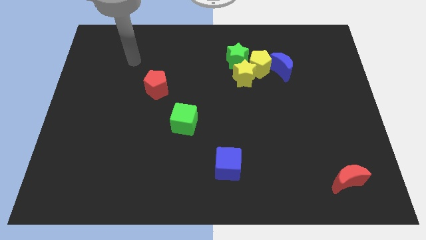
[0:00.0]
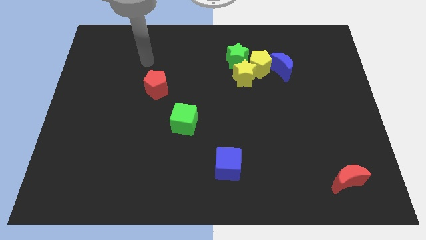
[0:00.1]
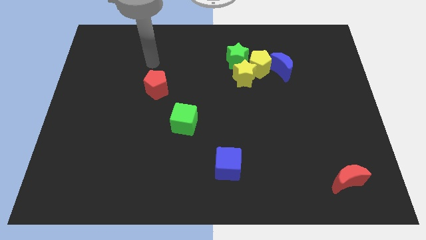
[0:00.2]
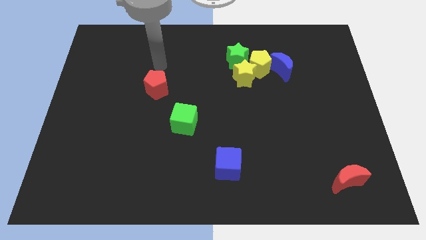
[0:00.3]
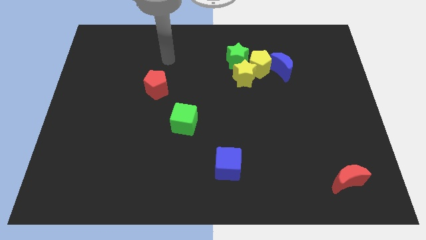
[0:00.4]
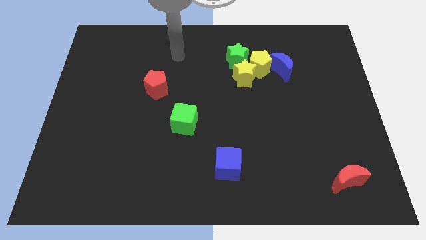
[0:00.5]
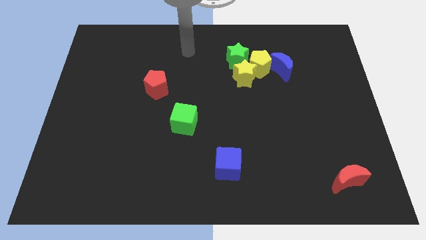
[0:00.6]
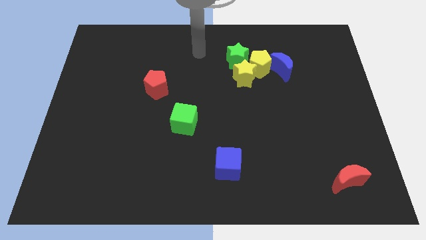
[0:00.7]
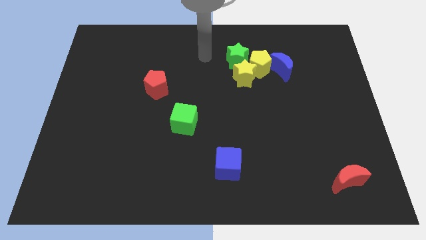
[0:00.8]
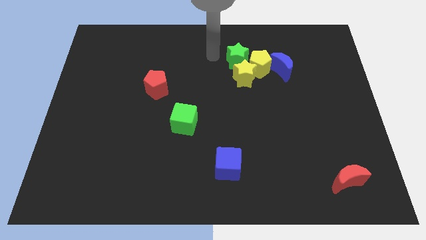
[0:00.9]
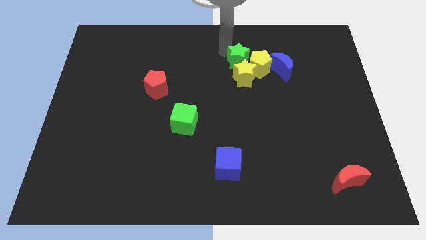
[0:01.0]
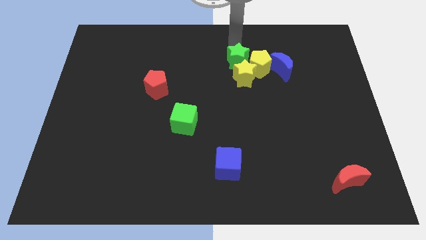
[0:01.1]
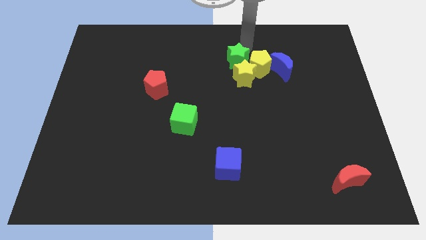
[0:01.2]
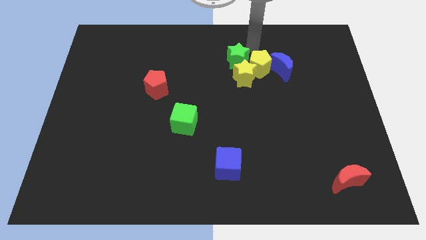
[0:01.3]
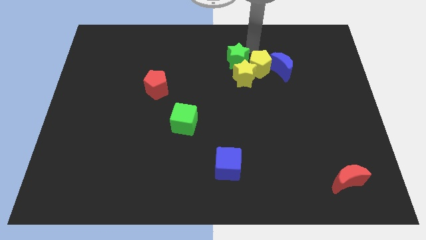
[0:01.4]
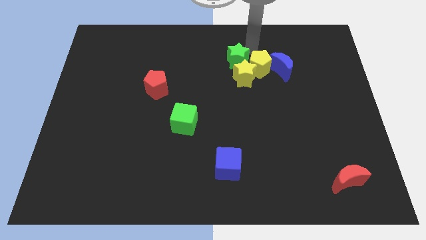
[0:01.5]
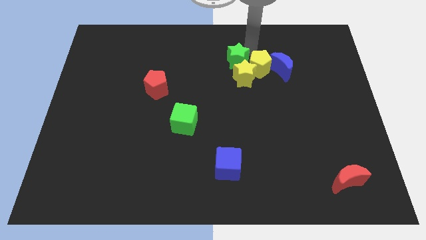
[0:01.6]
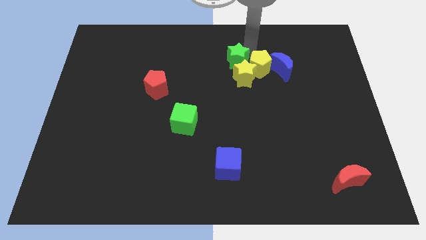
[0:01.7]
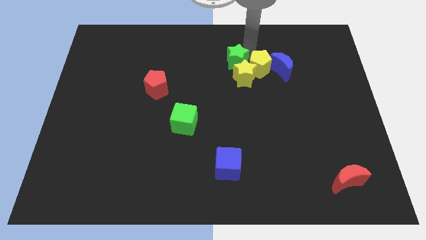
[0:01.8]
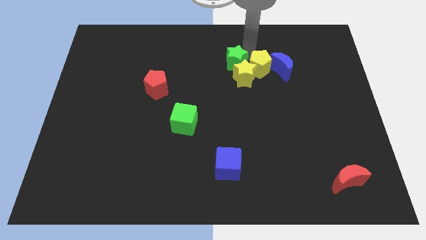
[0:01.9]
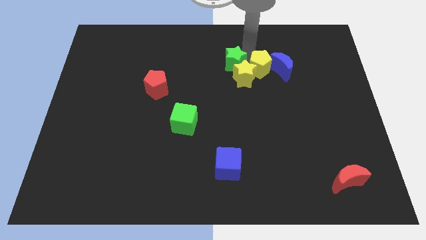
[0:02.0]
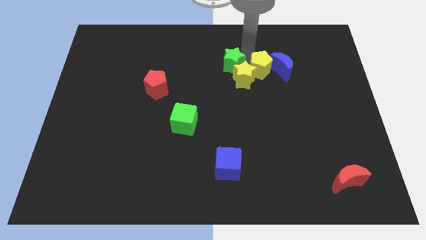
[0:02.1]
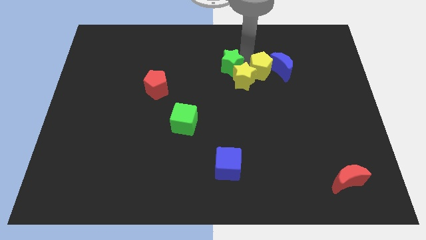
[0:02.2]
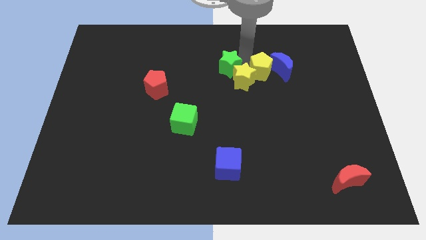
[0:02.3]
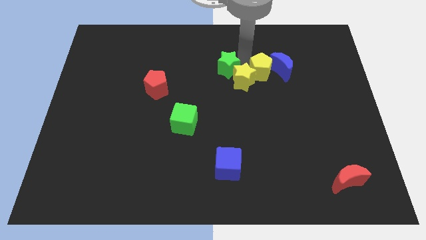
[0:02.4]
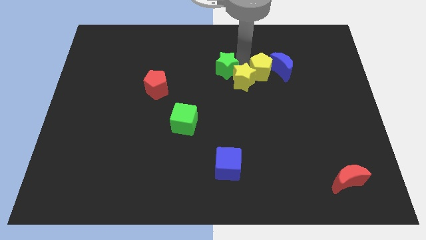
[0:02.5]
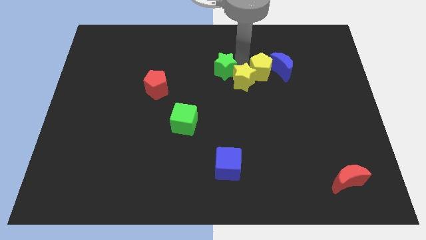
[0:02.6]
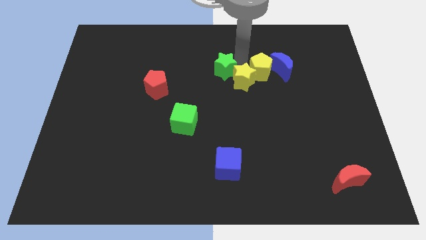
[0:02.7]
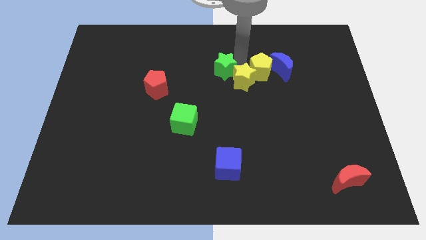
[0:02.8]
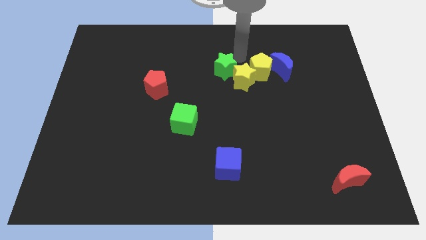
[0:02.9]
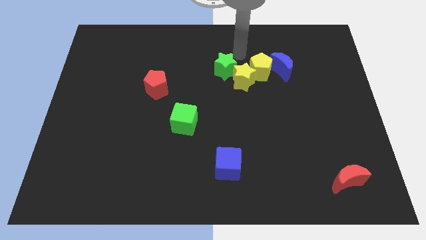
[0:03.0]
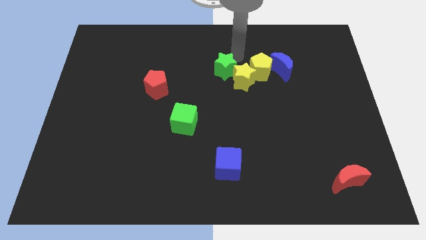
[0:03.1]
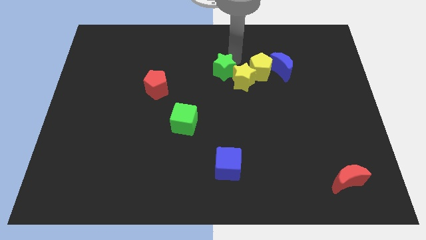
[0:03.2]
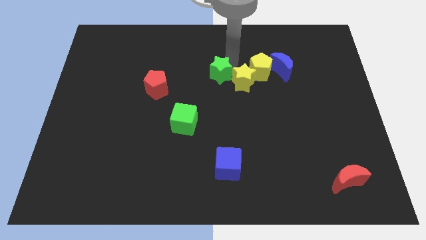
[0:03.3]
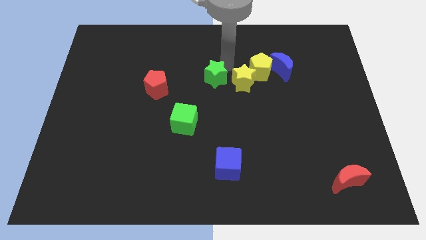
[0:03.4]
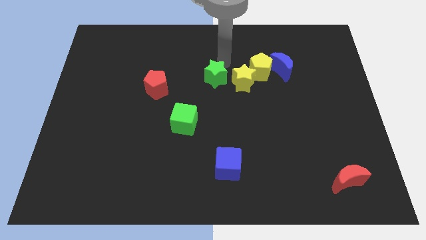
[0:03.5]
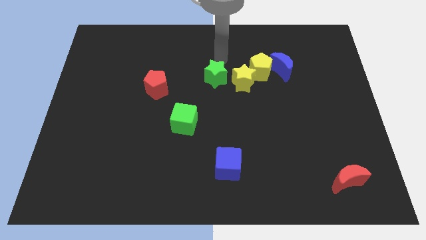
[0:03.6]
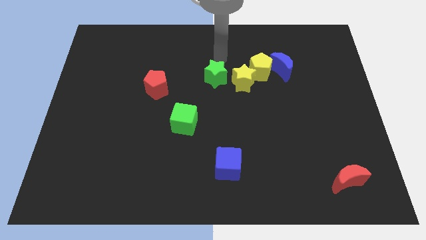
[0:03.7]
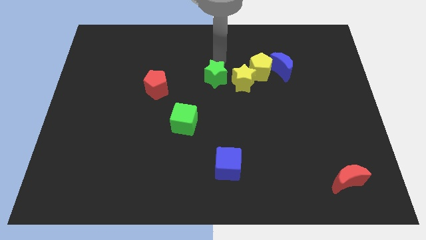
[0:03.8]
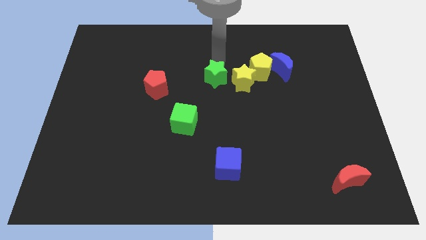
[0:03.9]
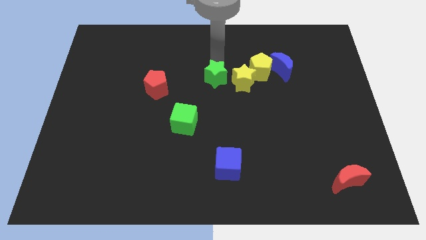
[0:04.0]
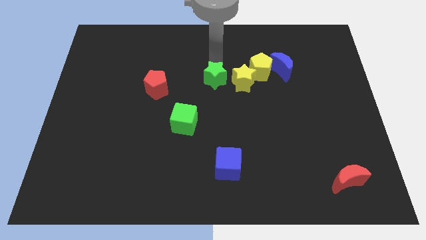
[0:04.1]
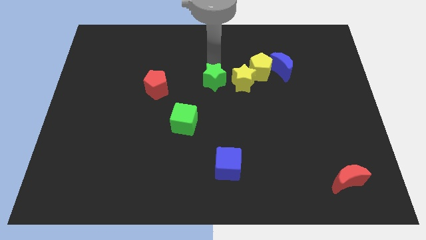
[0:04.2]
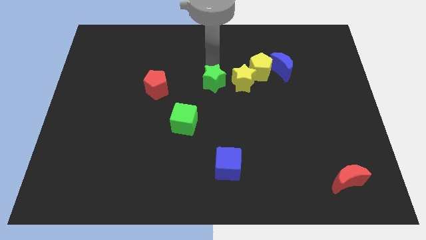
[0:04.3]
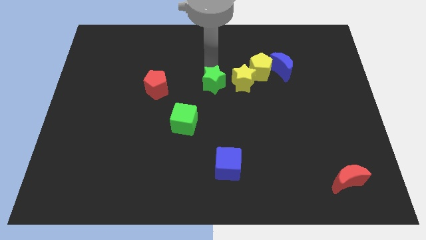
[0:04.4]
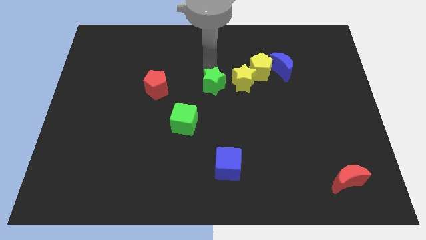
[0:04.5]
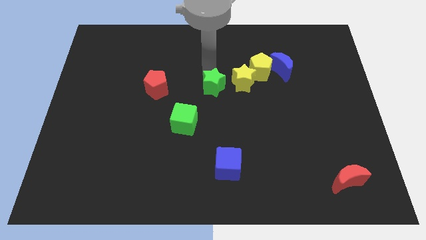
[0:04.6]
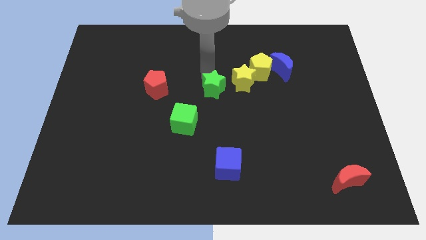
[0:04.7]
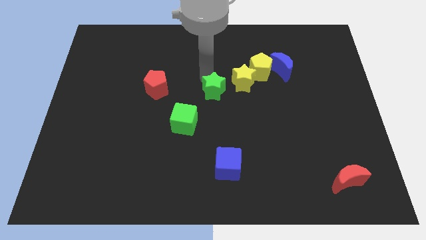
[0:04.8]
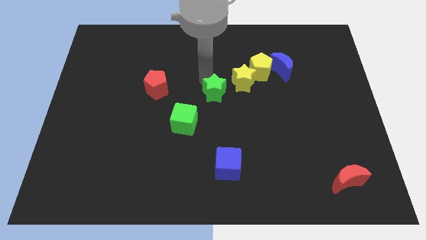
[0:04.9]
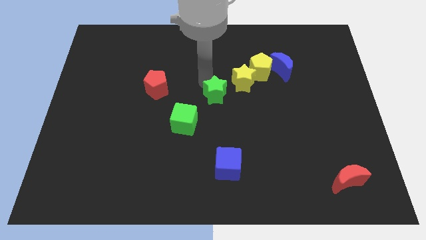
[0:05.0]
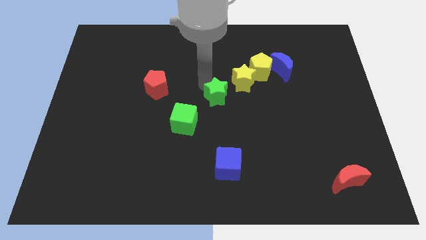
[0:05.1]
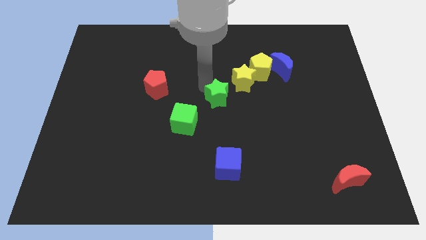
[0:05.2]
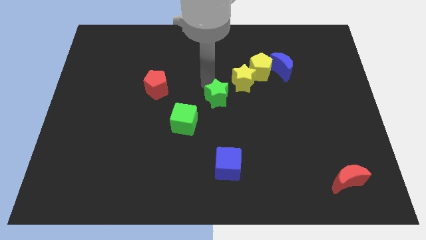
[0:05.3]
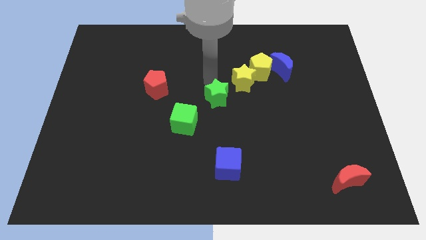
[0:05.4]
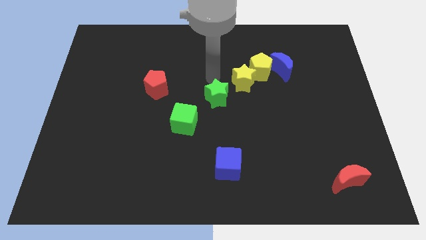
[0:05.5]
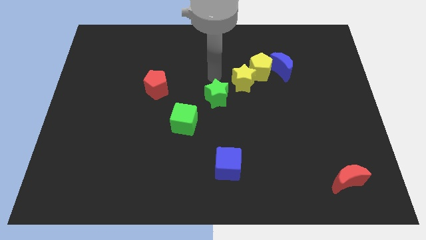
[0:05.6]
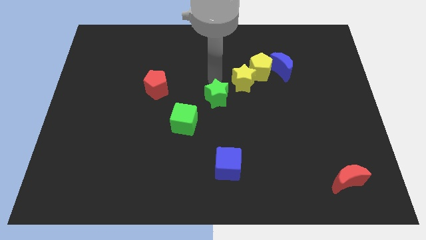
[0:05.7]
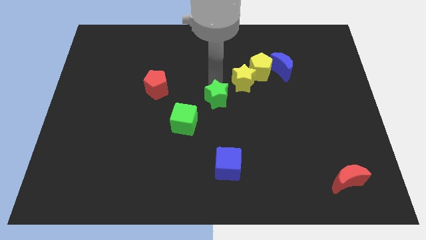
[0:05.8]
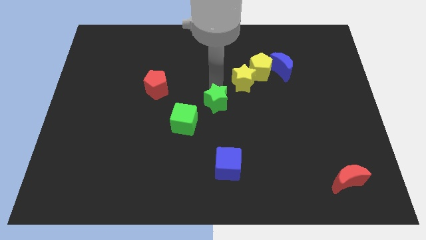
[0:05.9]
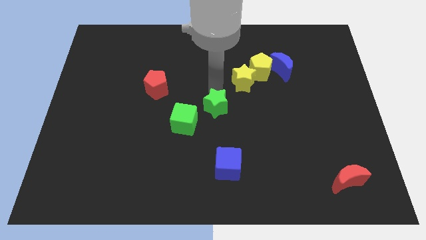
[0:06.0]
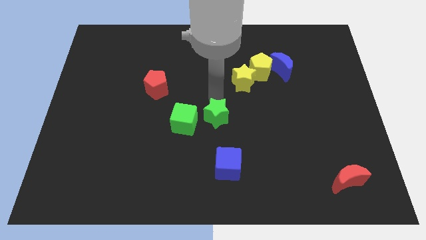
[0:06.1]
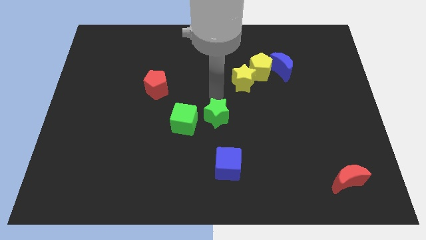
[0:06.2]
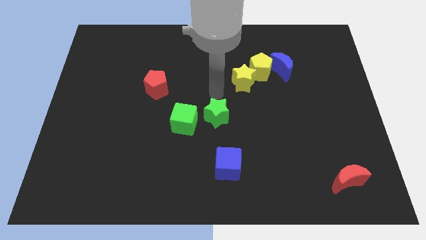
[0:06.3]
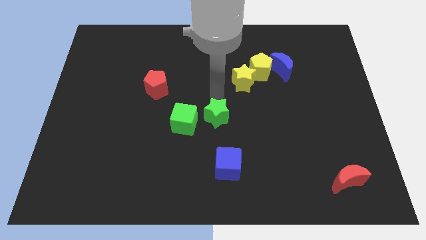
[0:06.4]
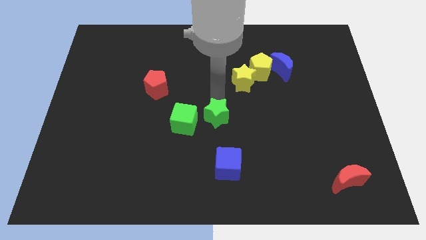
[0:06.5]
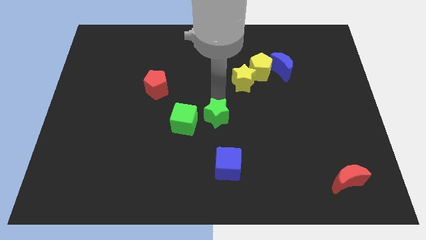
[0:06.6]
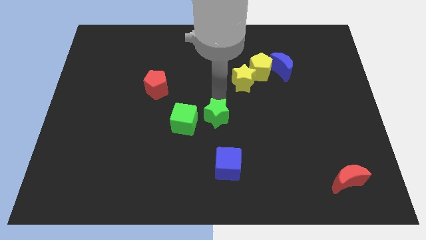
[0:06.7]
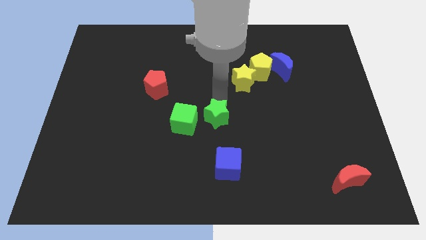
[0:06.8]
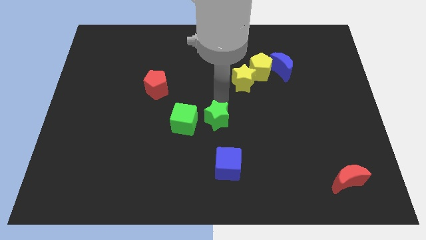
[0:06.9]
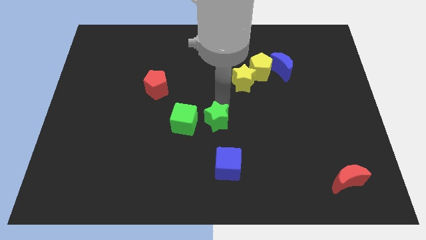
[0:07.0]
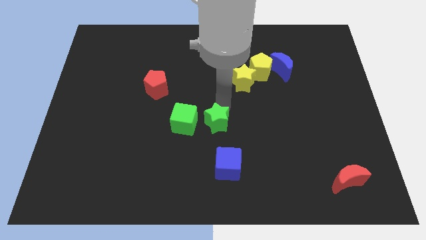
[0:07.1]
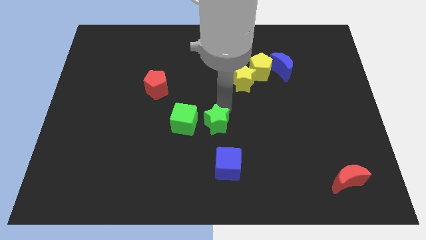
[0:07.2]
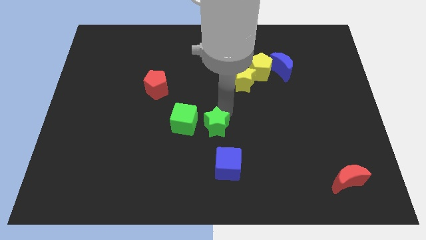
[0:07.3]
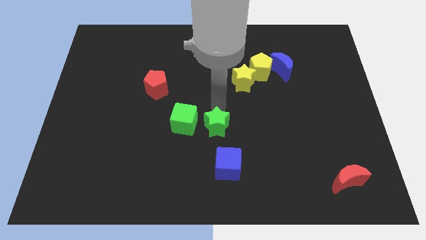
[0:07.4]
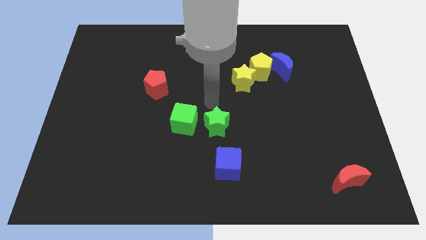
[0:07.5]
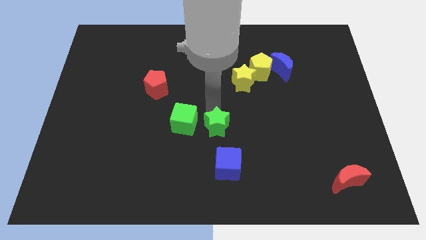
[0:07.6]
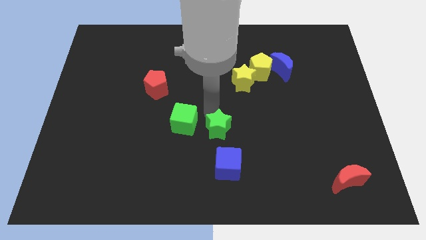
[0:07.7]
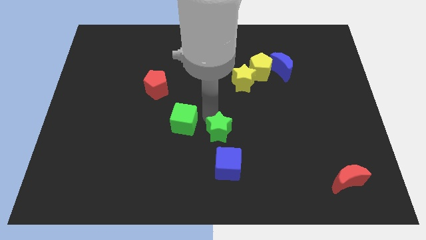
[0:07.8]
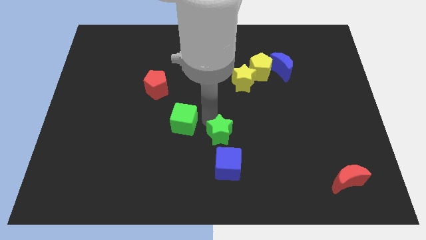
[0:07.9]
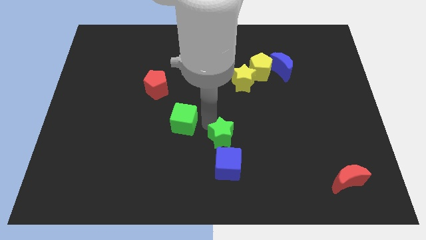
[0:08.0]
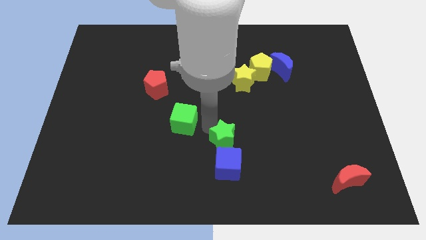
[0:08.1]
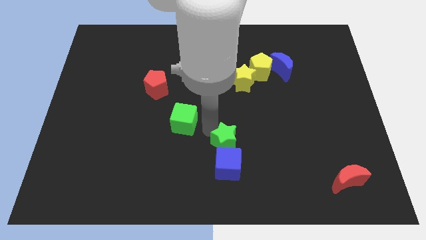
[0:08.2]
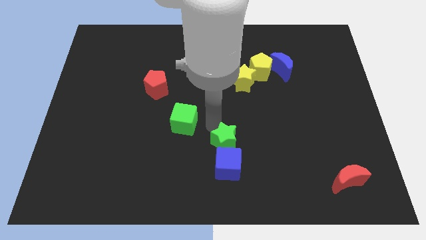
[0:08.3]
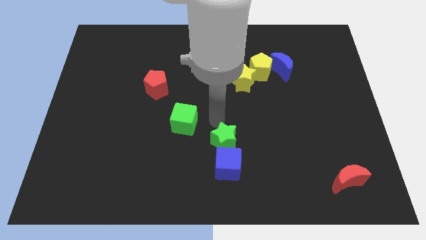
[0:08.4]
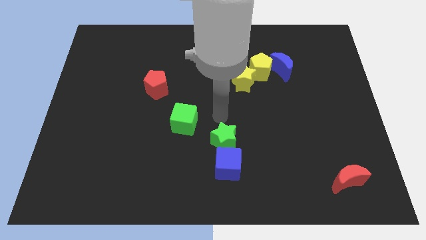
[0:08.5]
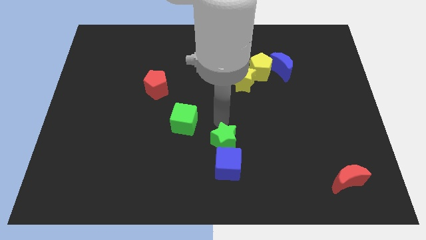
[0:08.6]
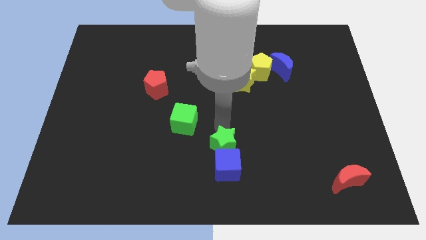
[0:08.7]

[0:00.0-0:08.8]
slide the green star to the blue cube
